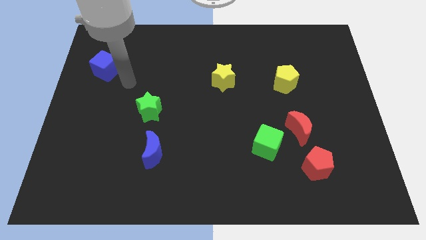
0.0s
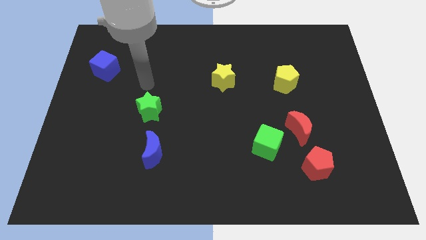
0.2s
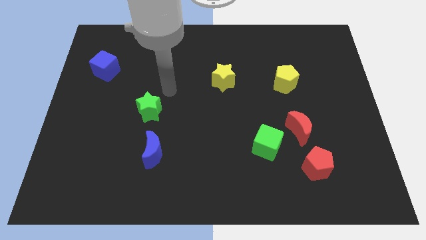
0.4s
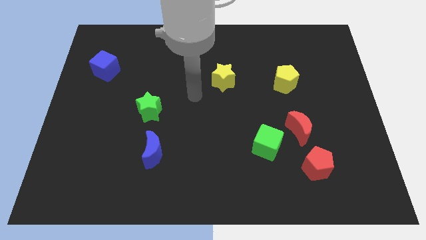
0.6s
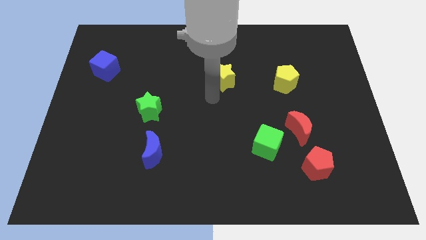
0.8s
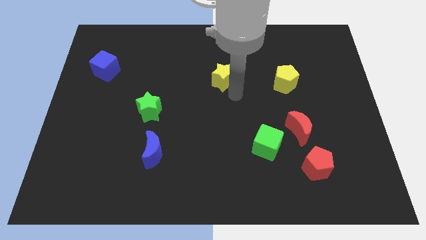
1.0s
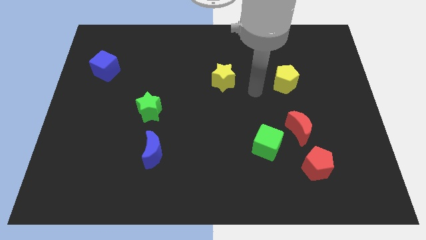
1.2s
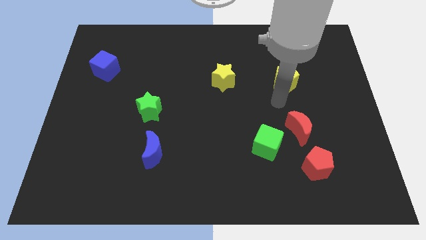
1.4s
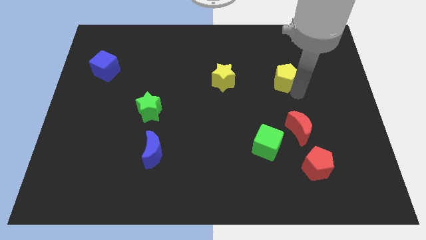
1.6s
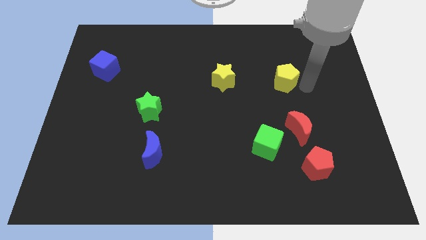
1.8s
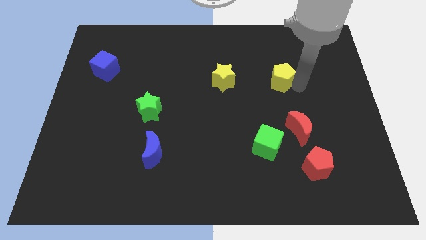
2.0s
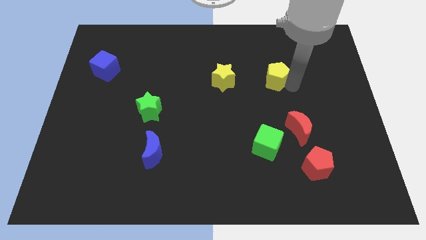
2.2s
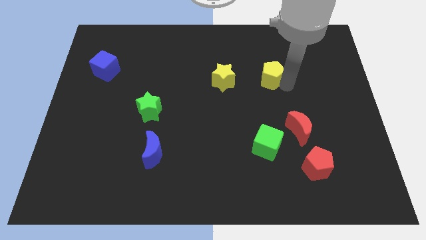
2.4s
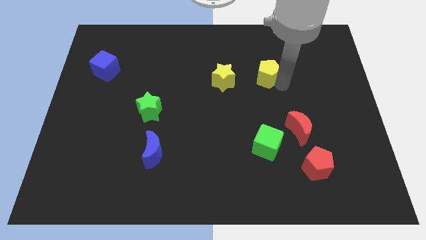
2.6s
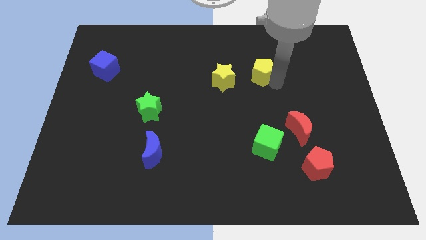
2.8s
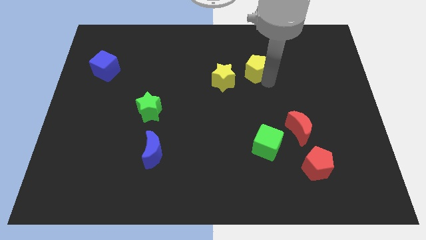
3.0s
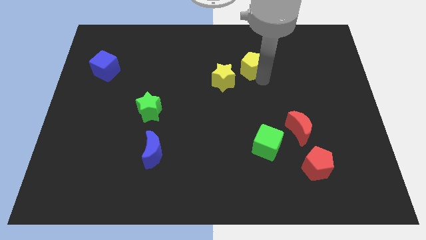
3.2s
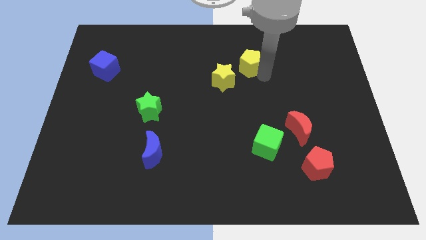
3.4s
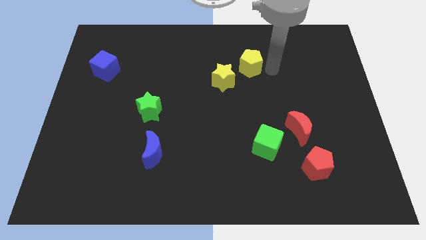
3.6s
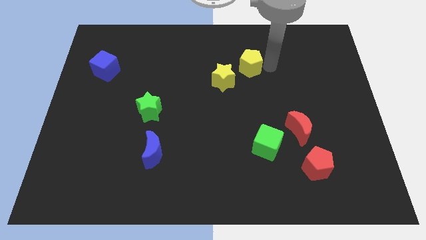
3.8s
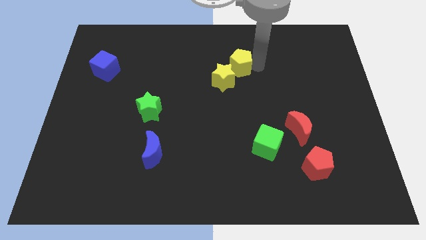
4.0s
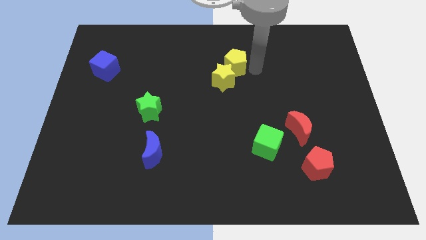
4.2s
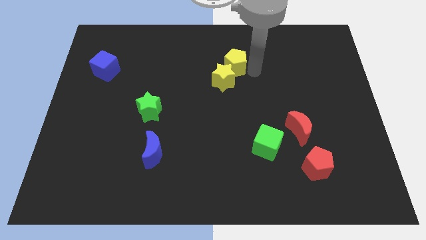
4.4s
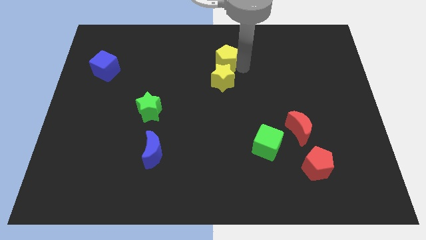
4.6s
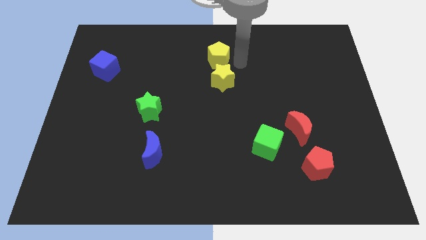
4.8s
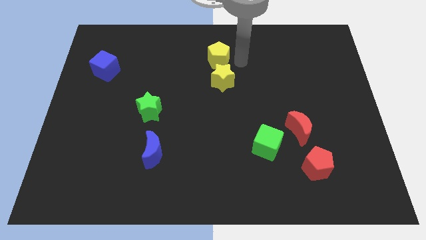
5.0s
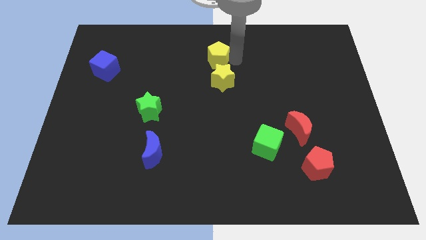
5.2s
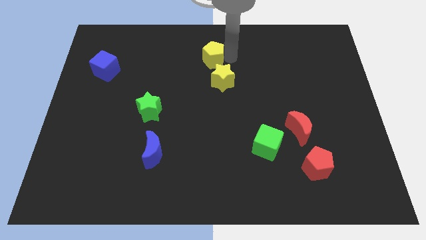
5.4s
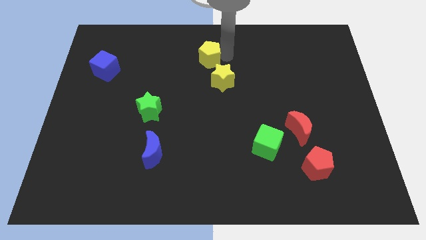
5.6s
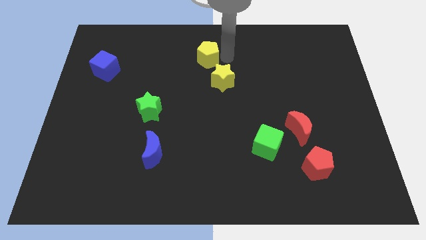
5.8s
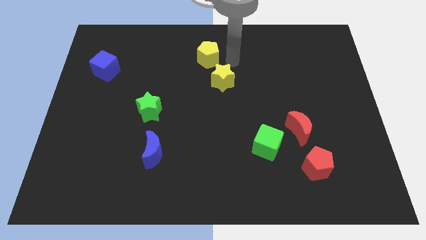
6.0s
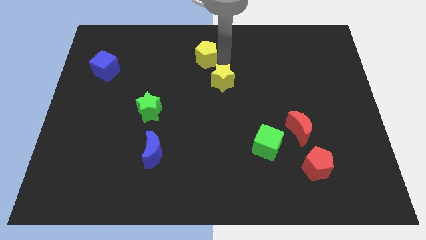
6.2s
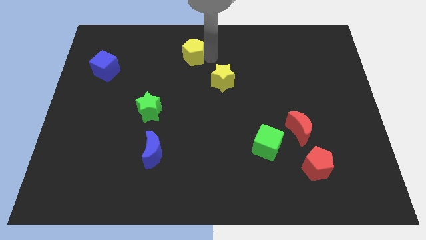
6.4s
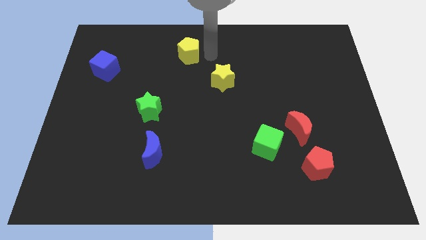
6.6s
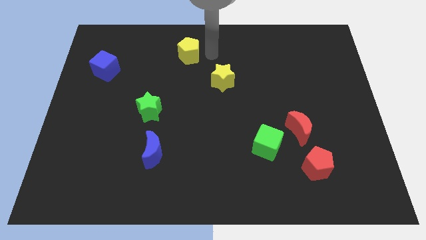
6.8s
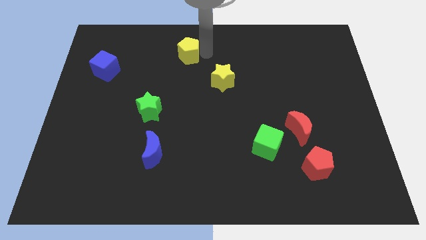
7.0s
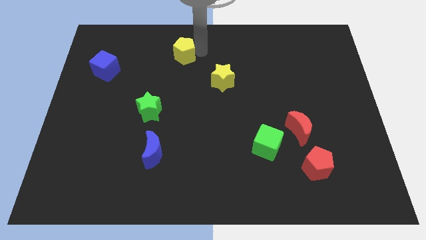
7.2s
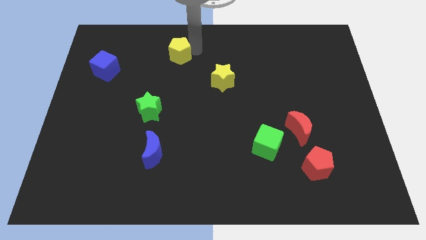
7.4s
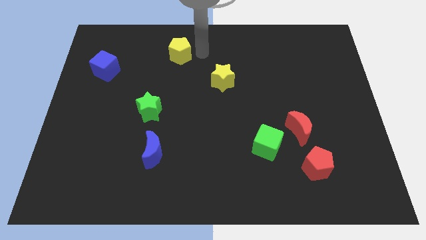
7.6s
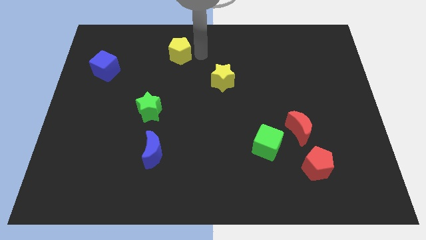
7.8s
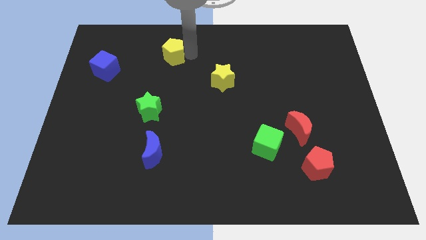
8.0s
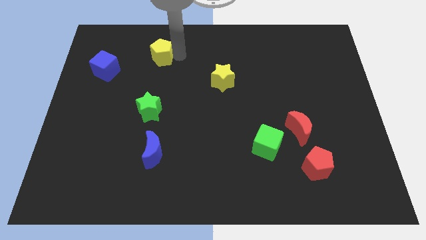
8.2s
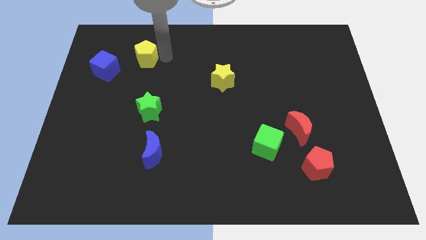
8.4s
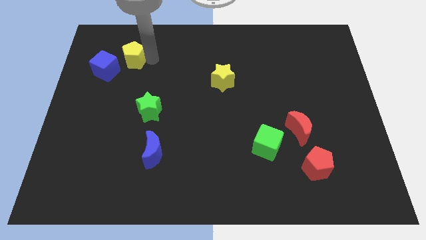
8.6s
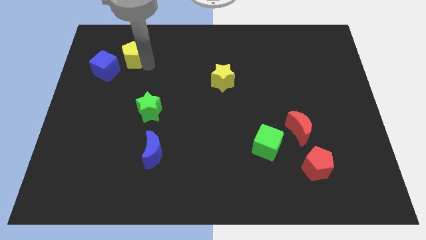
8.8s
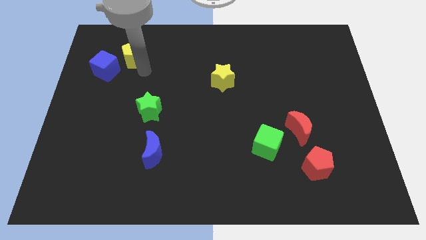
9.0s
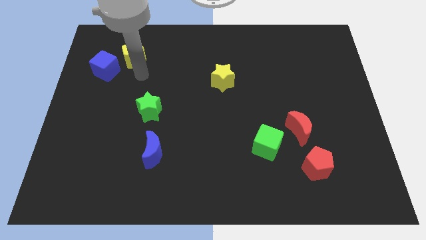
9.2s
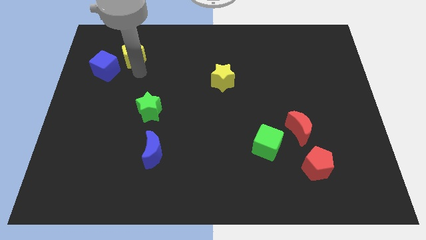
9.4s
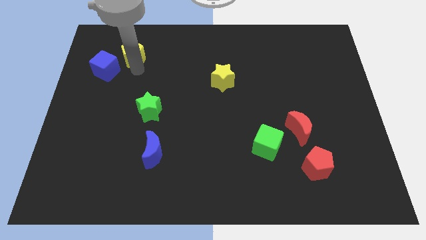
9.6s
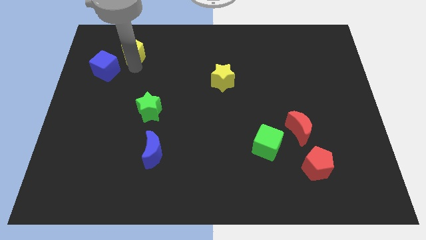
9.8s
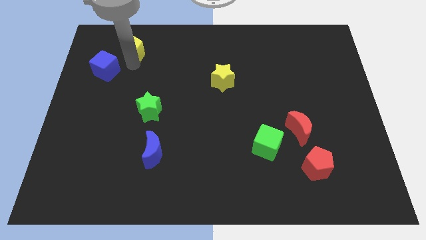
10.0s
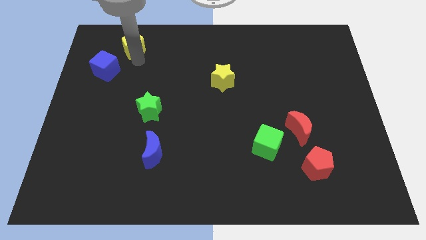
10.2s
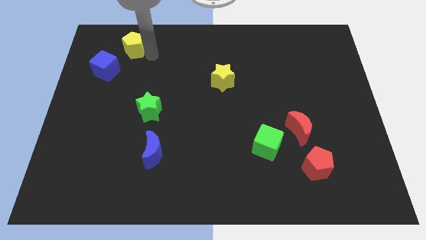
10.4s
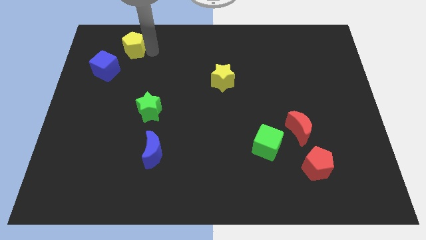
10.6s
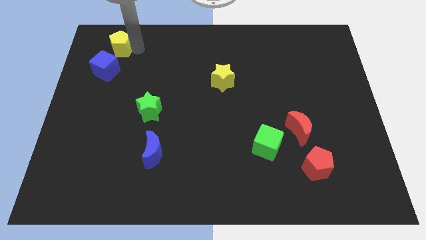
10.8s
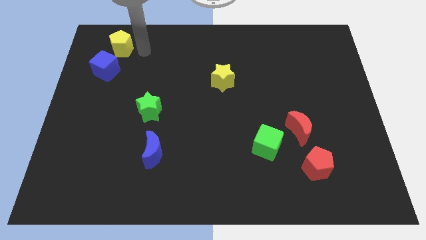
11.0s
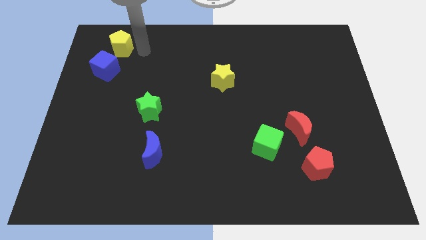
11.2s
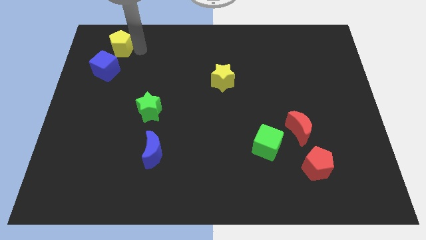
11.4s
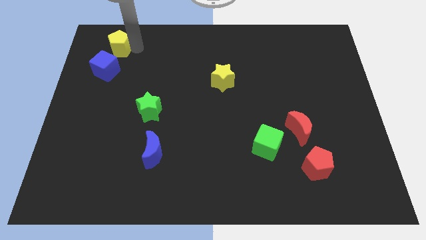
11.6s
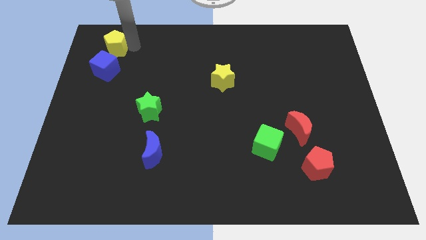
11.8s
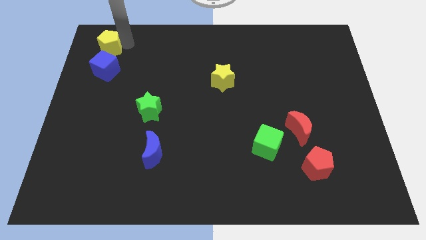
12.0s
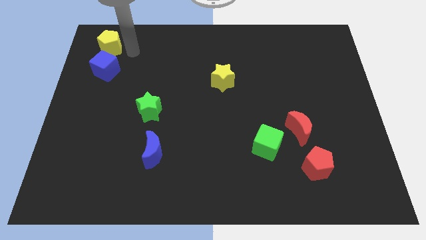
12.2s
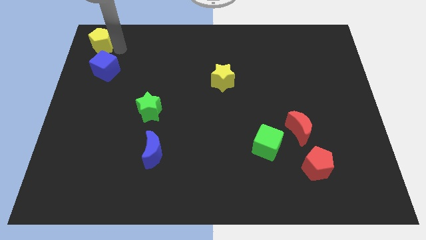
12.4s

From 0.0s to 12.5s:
slide the yellow pentagon to the top left of the board
